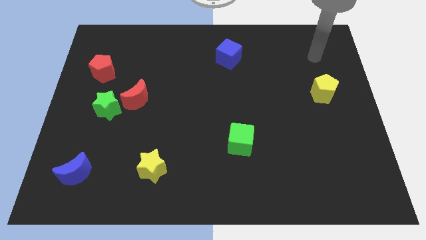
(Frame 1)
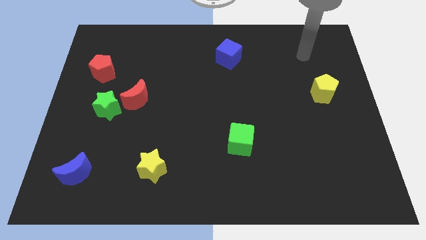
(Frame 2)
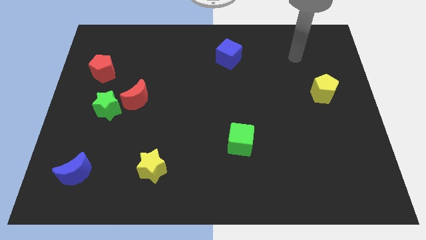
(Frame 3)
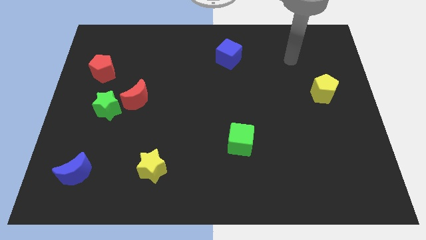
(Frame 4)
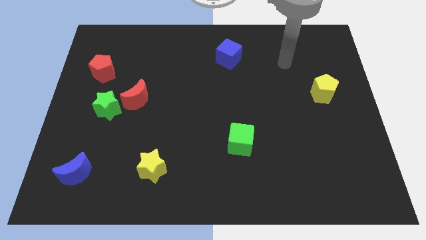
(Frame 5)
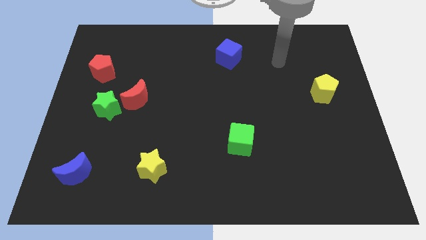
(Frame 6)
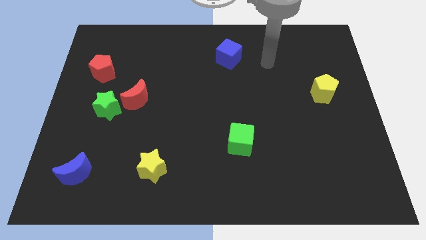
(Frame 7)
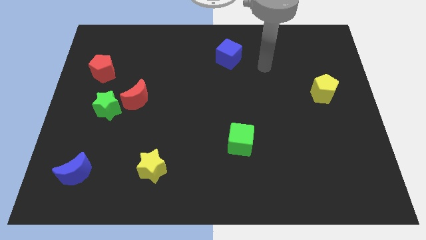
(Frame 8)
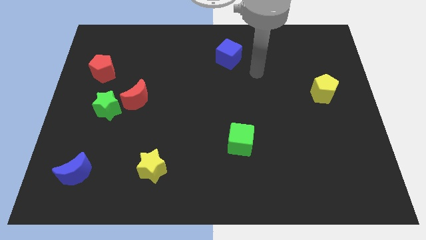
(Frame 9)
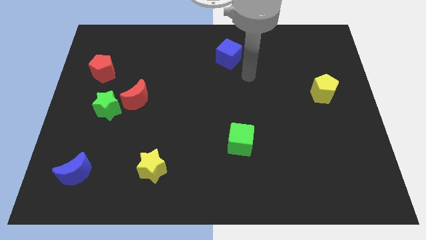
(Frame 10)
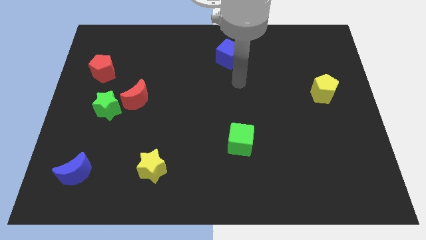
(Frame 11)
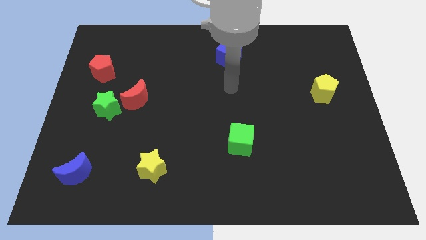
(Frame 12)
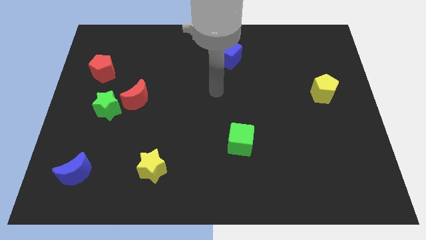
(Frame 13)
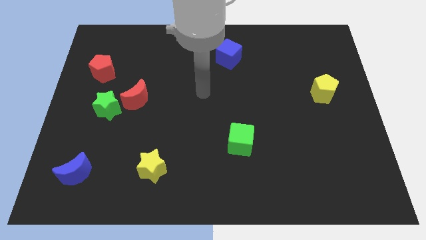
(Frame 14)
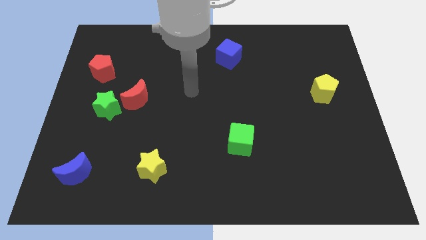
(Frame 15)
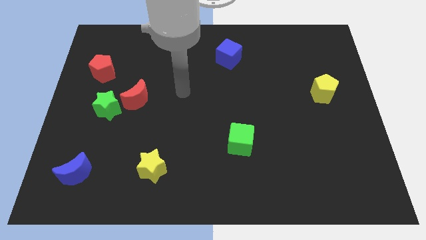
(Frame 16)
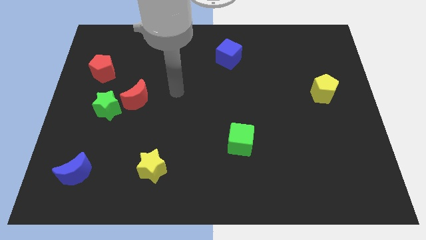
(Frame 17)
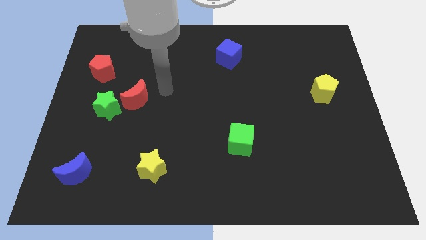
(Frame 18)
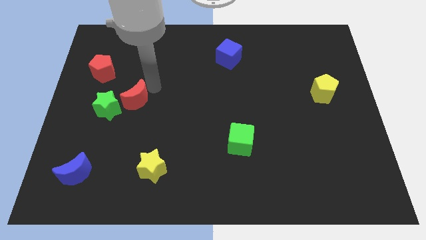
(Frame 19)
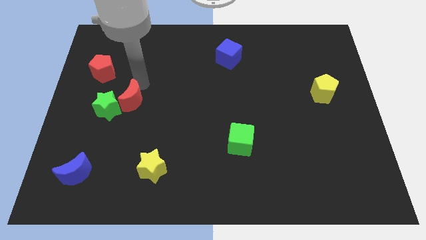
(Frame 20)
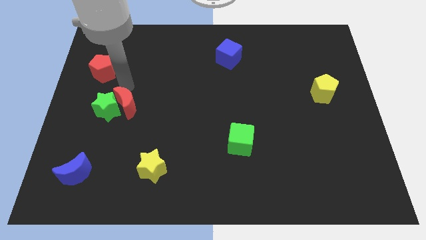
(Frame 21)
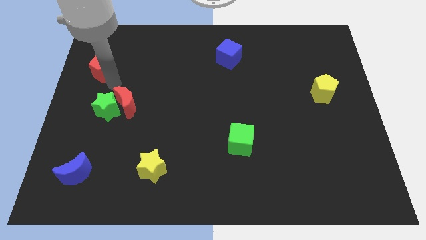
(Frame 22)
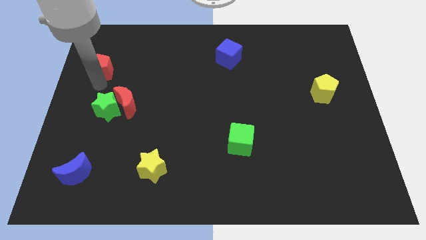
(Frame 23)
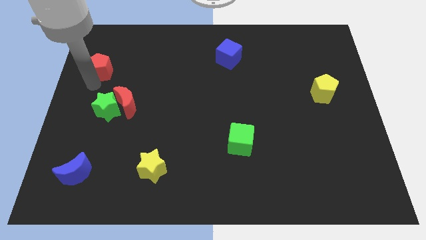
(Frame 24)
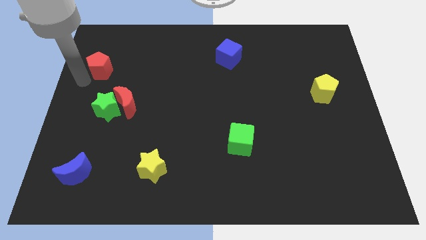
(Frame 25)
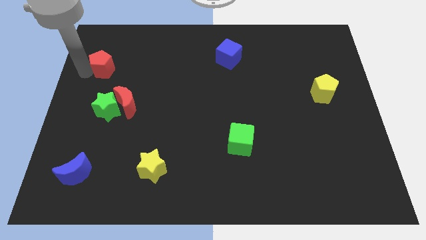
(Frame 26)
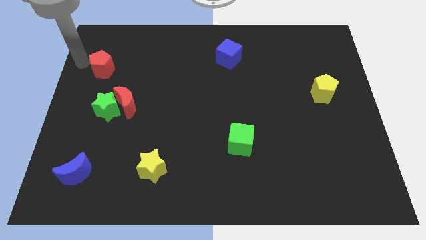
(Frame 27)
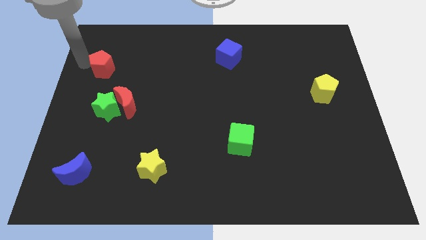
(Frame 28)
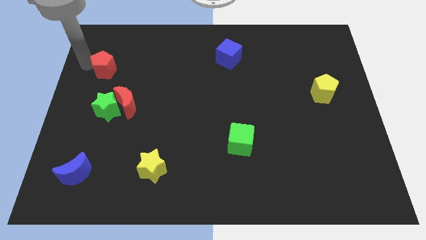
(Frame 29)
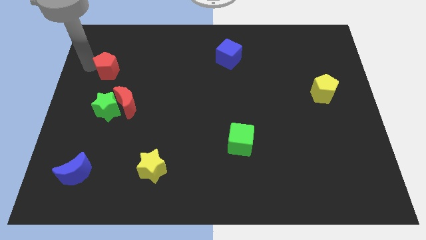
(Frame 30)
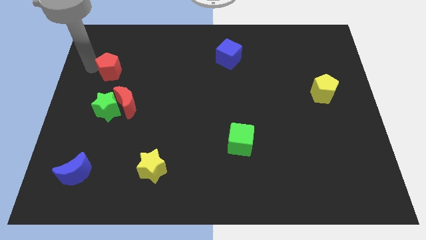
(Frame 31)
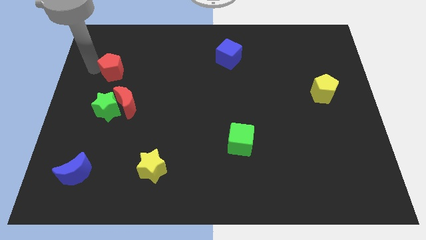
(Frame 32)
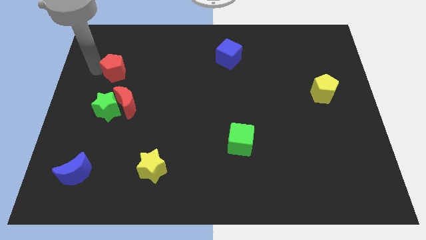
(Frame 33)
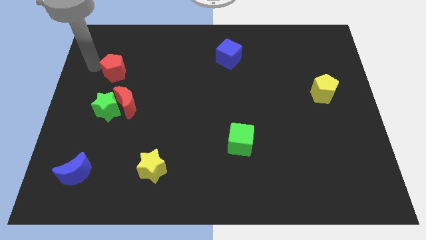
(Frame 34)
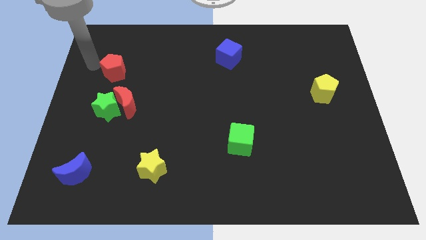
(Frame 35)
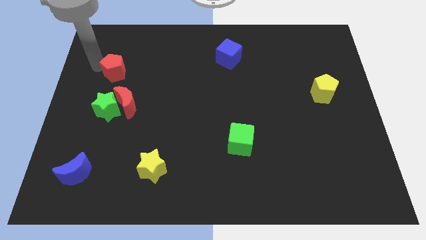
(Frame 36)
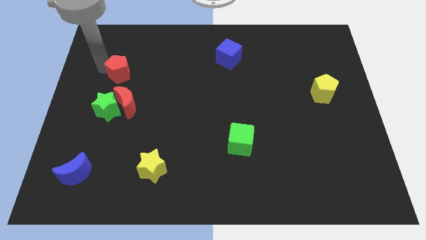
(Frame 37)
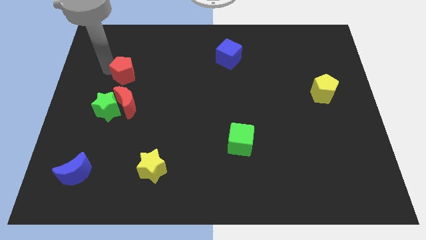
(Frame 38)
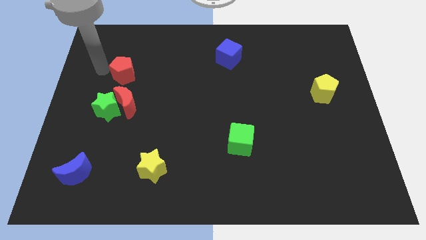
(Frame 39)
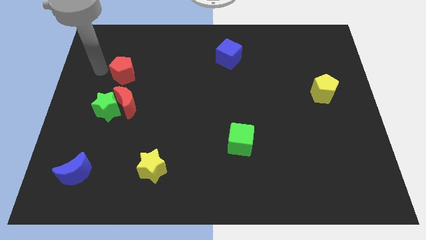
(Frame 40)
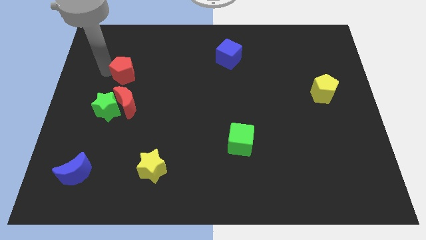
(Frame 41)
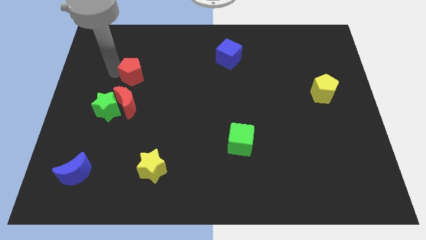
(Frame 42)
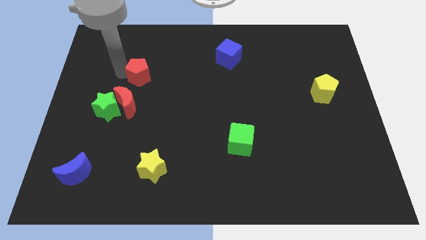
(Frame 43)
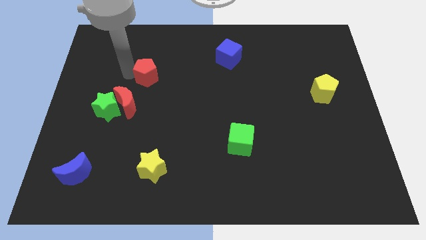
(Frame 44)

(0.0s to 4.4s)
slightly slide the red pentagon downwards and to the right

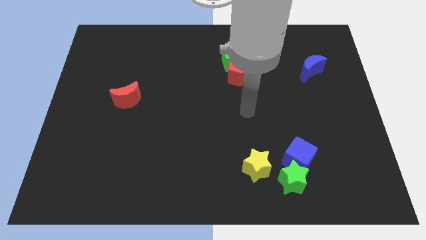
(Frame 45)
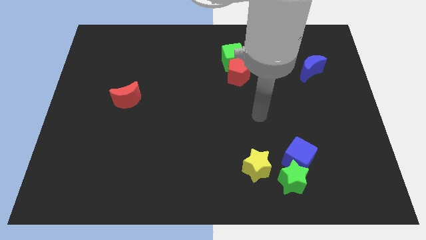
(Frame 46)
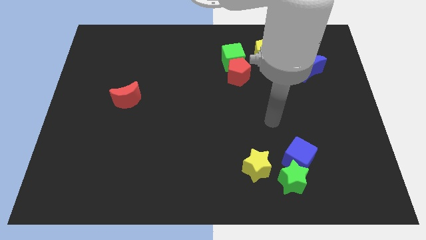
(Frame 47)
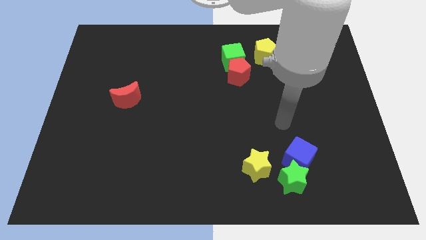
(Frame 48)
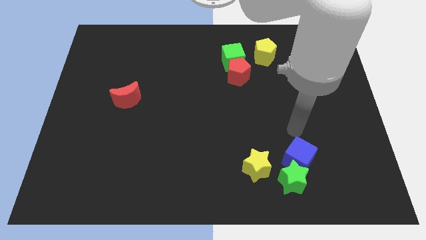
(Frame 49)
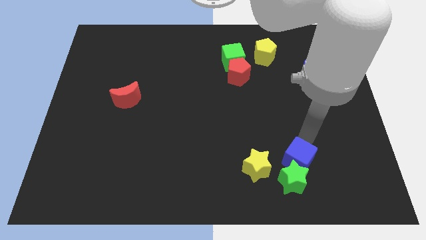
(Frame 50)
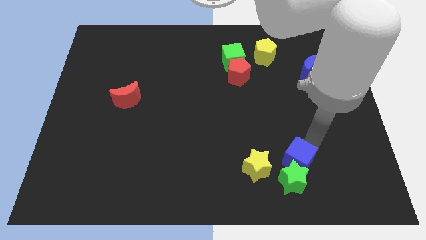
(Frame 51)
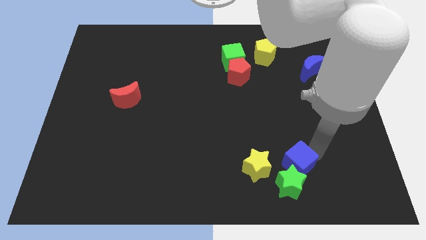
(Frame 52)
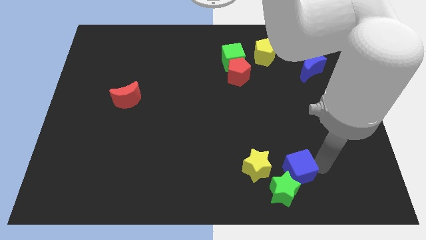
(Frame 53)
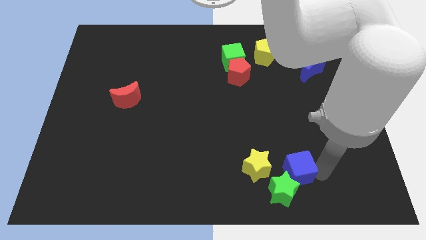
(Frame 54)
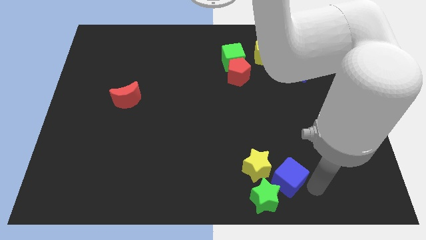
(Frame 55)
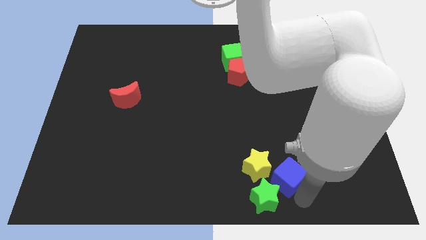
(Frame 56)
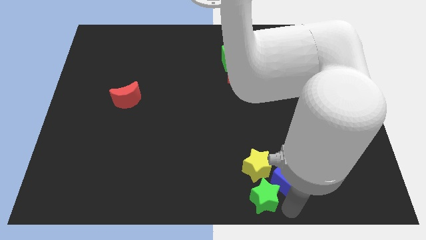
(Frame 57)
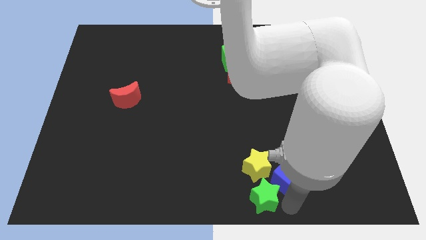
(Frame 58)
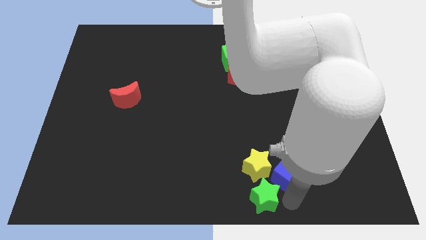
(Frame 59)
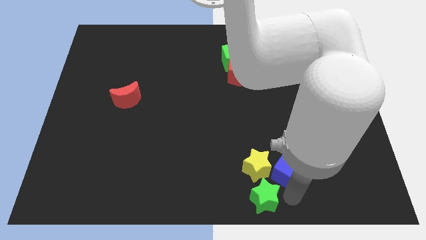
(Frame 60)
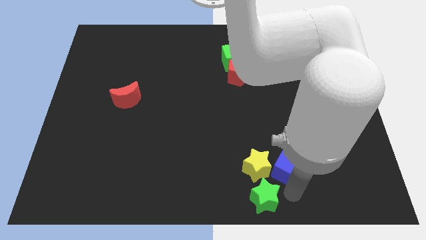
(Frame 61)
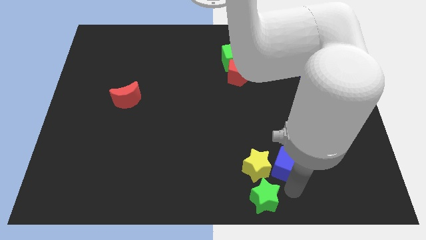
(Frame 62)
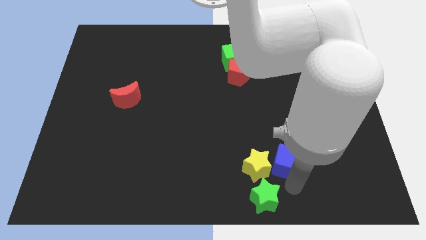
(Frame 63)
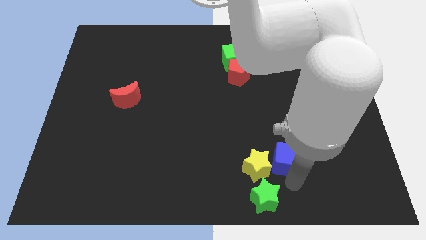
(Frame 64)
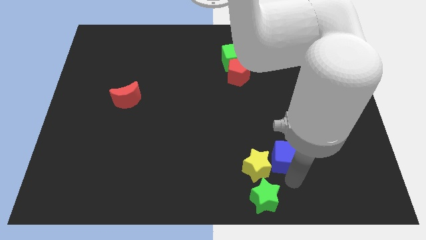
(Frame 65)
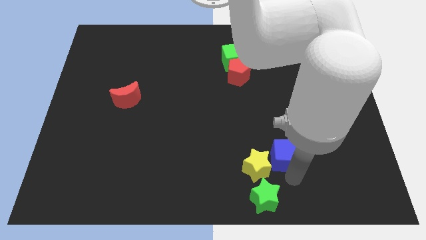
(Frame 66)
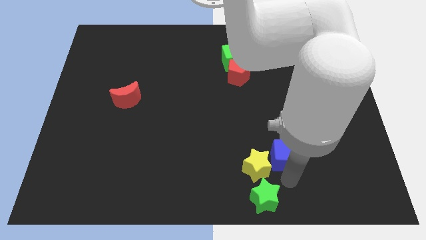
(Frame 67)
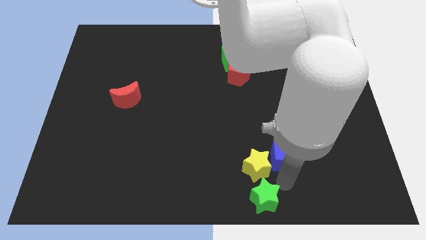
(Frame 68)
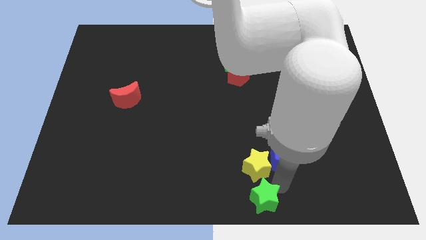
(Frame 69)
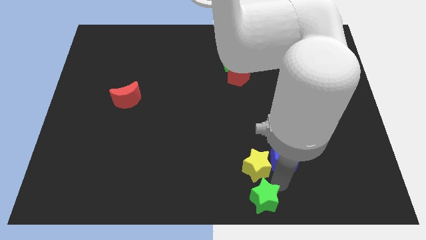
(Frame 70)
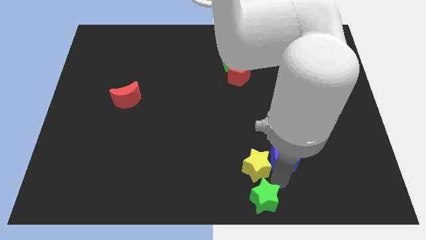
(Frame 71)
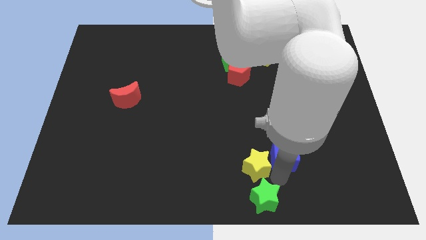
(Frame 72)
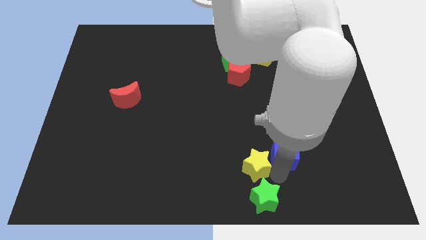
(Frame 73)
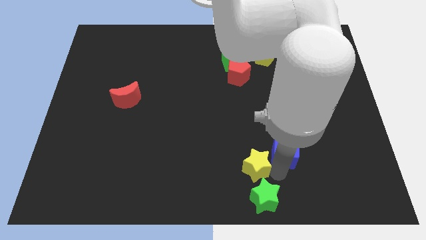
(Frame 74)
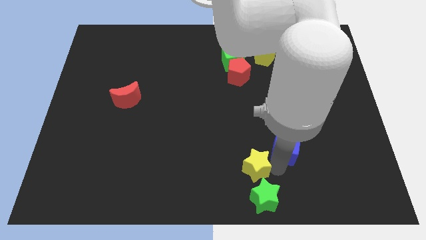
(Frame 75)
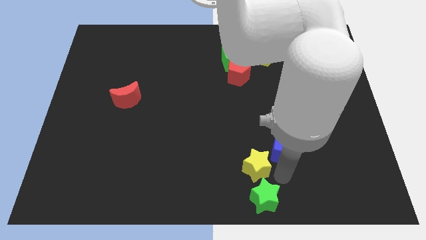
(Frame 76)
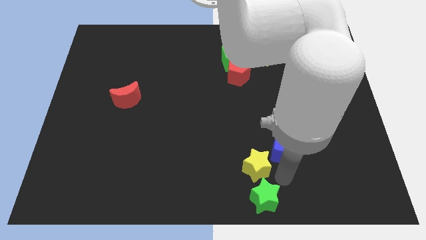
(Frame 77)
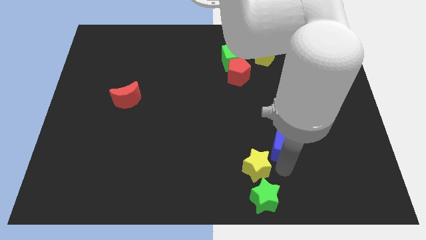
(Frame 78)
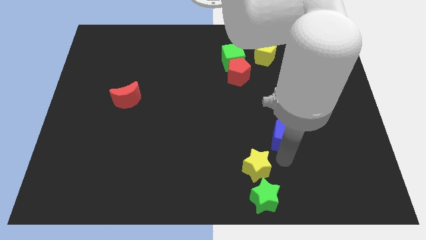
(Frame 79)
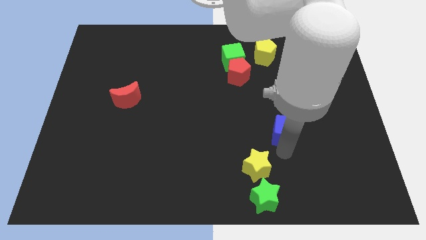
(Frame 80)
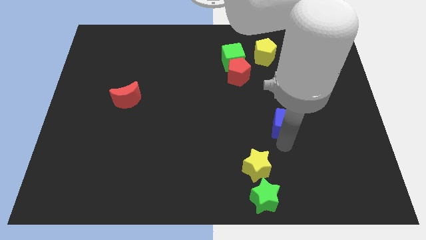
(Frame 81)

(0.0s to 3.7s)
slightly push the blue cube up

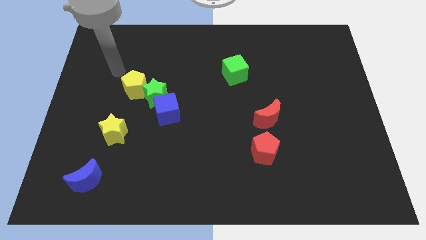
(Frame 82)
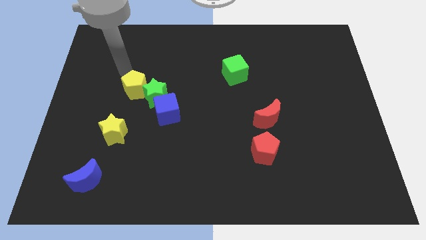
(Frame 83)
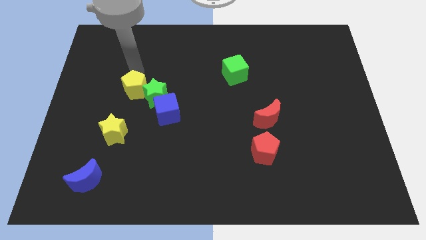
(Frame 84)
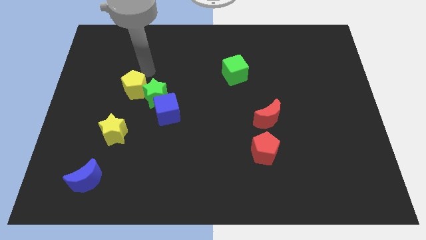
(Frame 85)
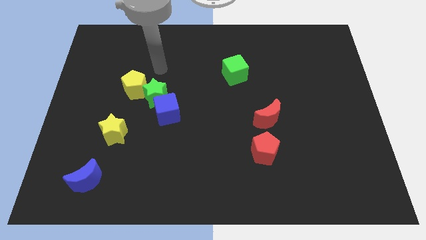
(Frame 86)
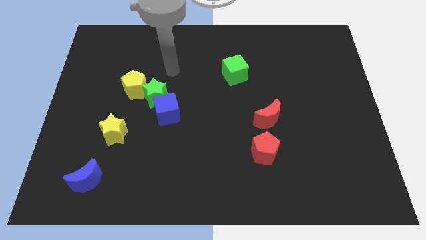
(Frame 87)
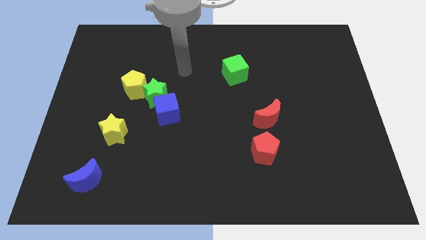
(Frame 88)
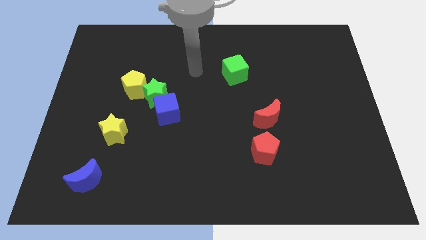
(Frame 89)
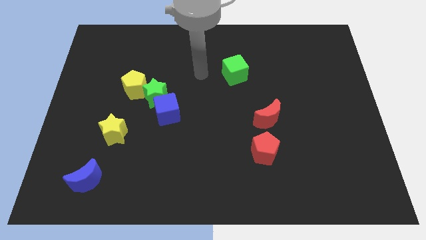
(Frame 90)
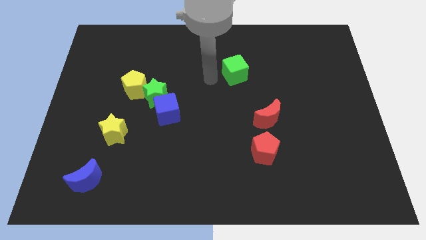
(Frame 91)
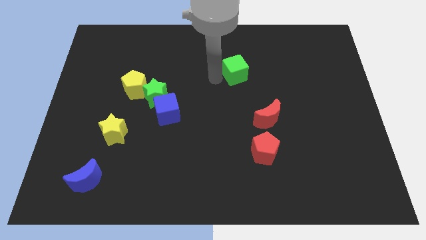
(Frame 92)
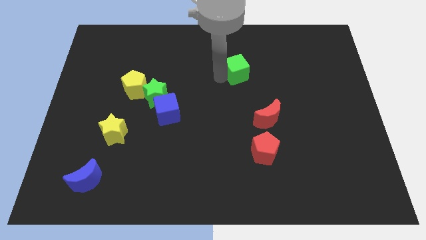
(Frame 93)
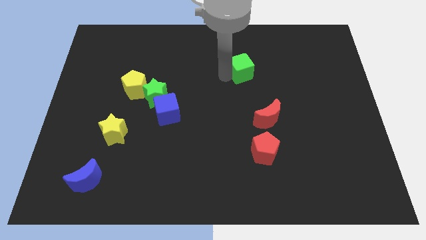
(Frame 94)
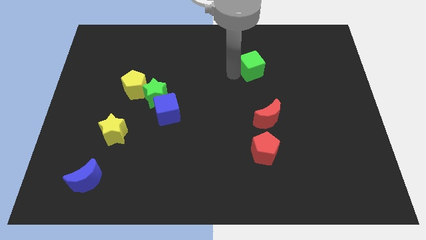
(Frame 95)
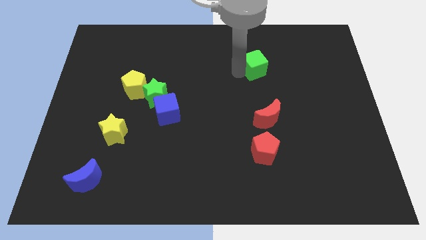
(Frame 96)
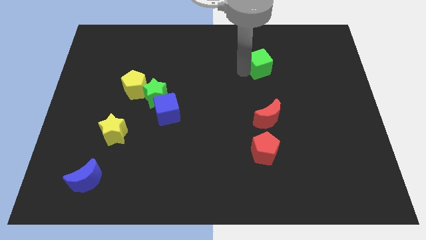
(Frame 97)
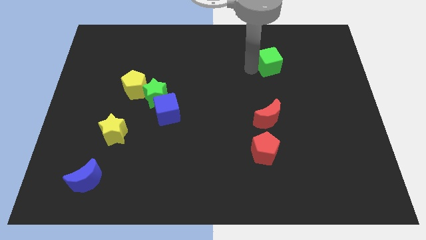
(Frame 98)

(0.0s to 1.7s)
slightly push the green cube right
